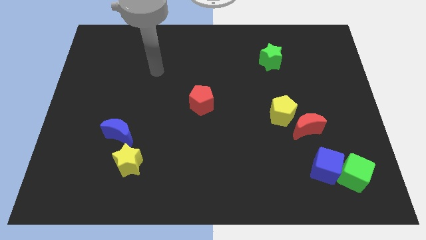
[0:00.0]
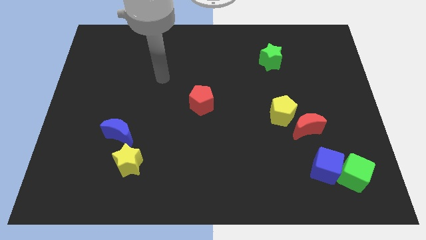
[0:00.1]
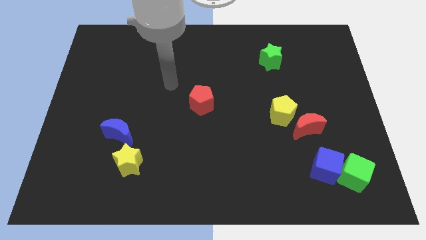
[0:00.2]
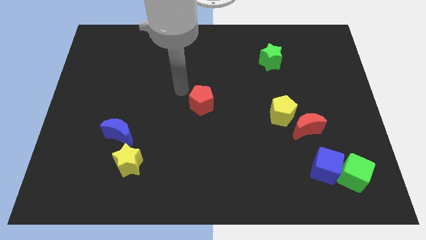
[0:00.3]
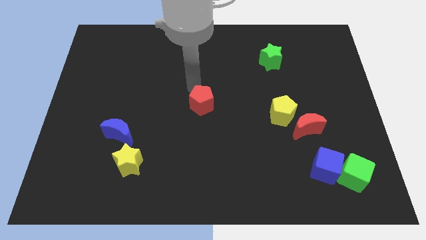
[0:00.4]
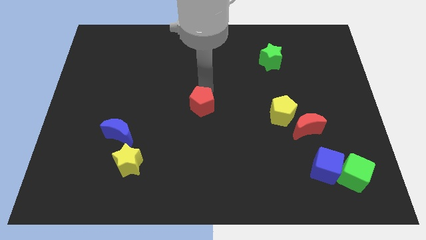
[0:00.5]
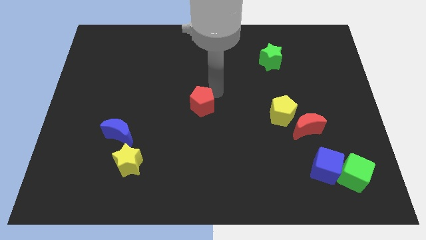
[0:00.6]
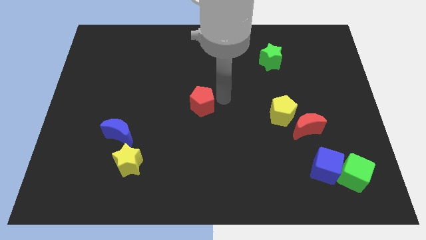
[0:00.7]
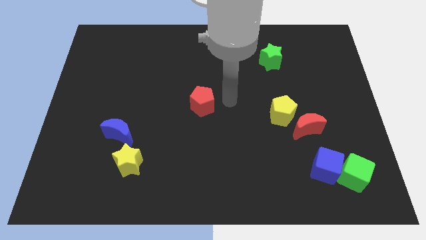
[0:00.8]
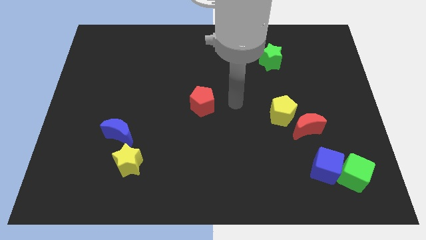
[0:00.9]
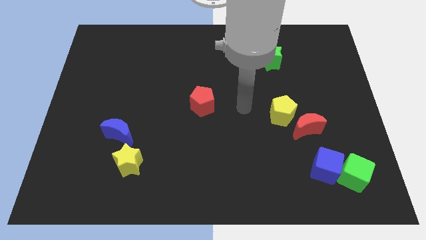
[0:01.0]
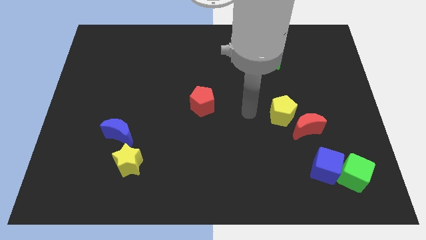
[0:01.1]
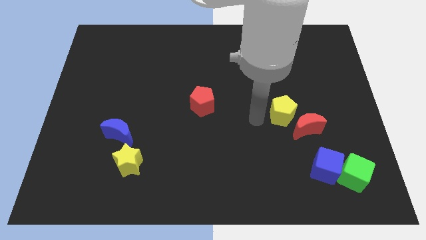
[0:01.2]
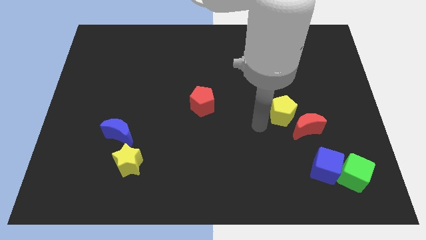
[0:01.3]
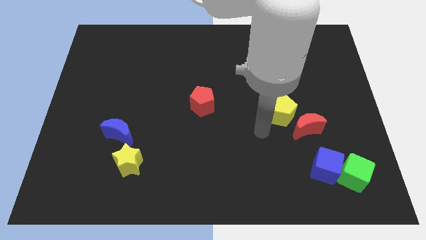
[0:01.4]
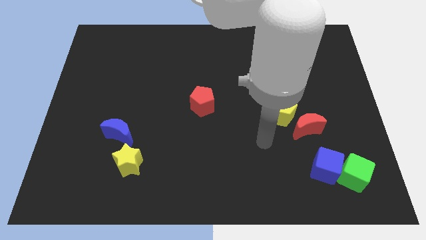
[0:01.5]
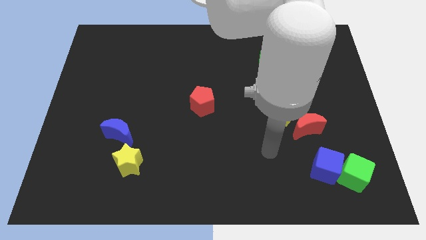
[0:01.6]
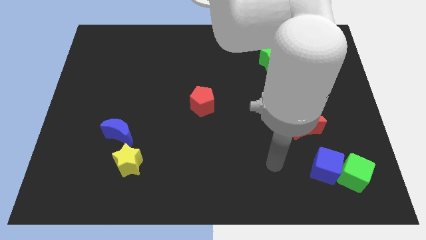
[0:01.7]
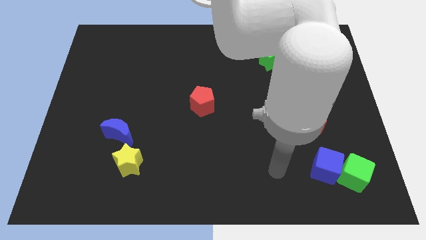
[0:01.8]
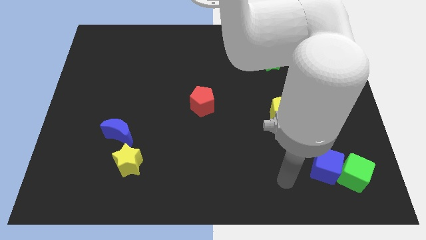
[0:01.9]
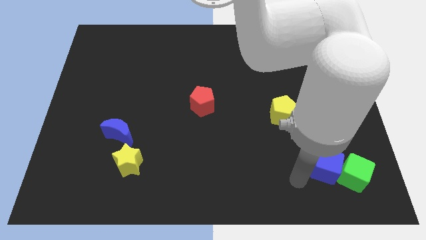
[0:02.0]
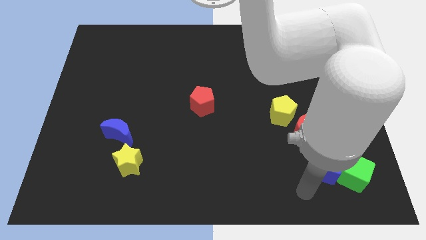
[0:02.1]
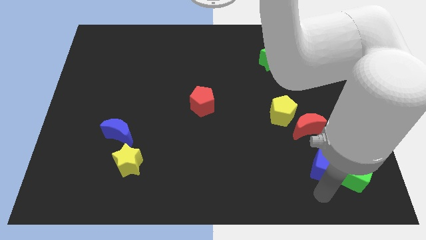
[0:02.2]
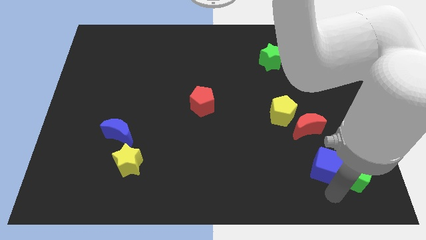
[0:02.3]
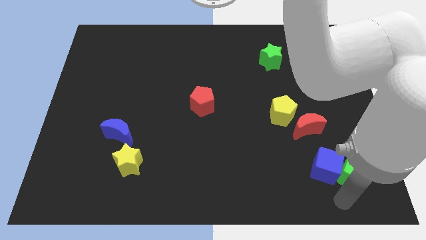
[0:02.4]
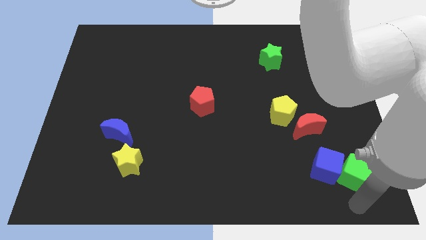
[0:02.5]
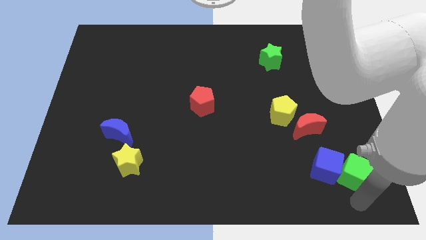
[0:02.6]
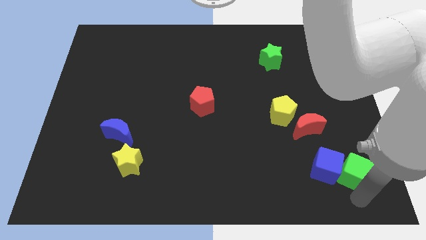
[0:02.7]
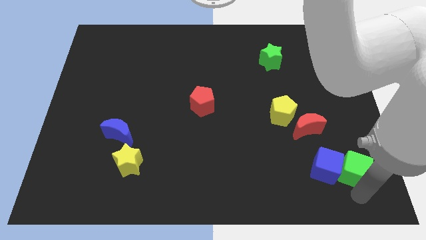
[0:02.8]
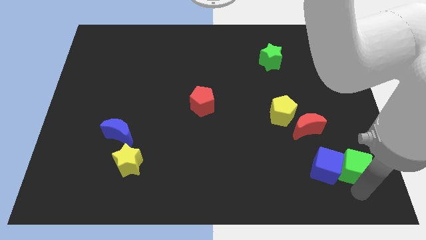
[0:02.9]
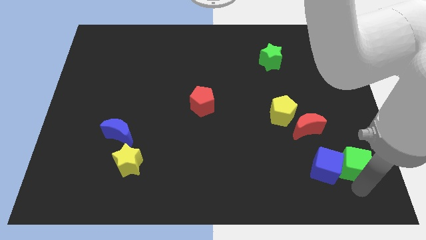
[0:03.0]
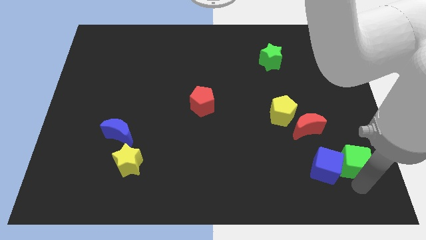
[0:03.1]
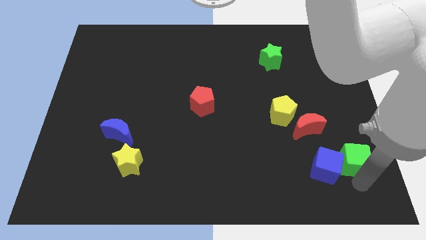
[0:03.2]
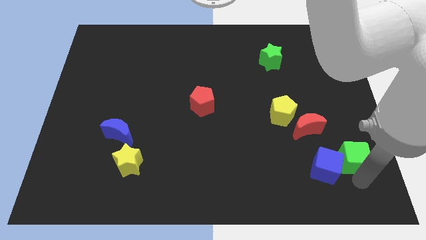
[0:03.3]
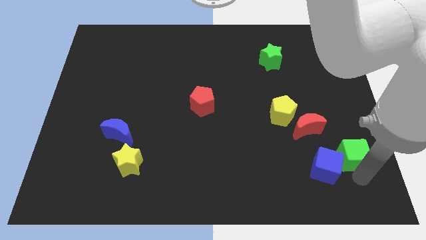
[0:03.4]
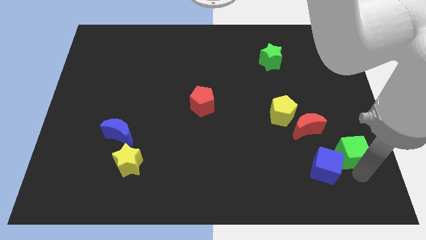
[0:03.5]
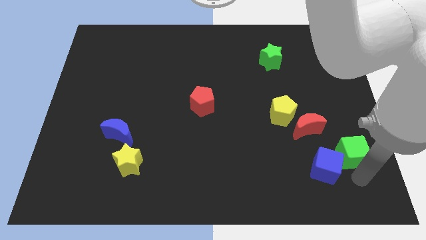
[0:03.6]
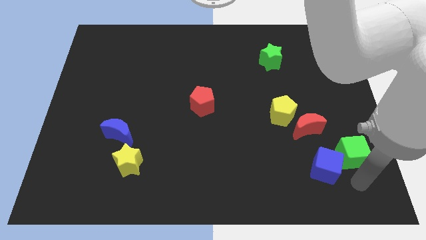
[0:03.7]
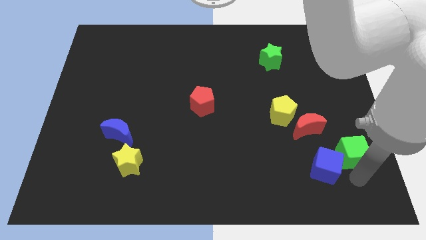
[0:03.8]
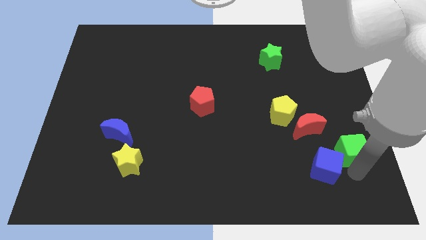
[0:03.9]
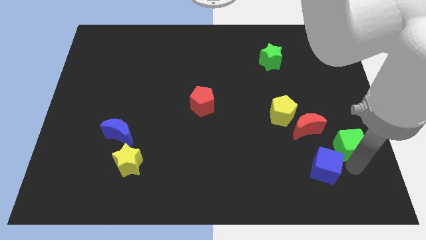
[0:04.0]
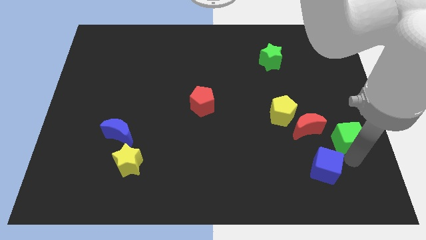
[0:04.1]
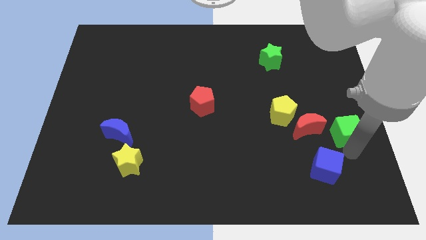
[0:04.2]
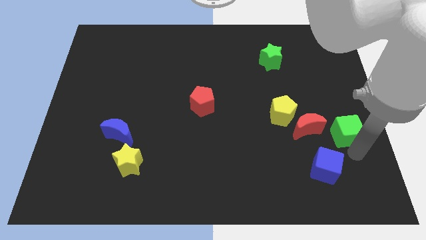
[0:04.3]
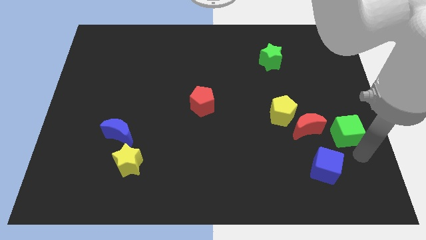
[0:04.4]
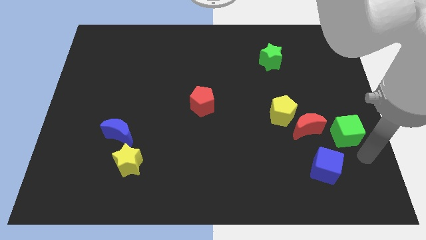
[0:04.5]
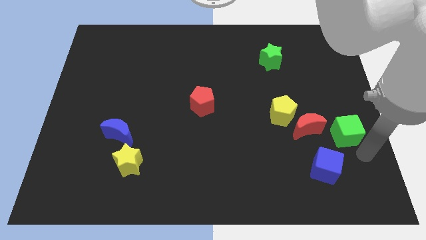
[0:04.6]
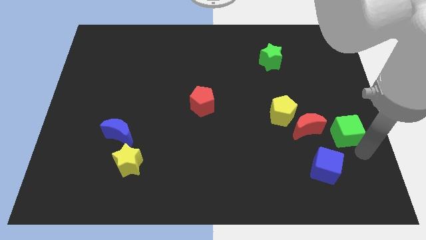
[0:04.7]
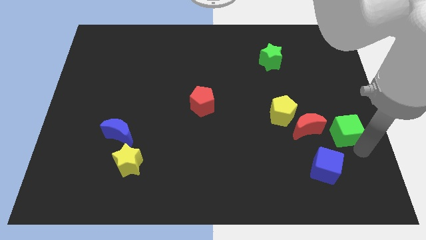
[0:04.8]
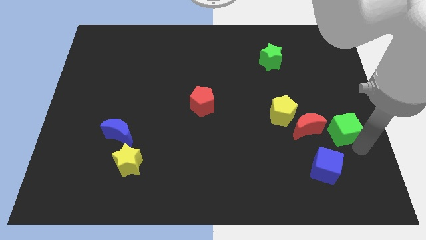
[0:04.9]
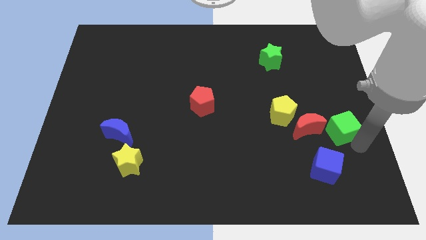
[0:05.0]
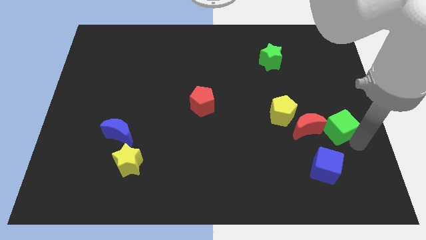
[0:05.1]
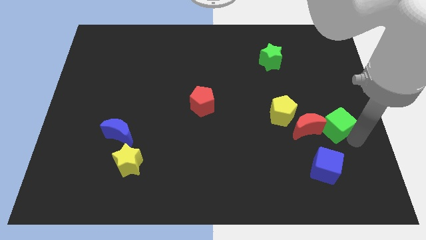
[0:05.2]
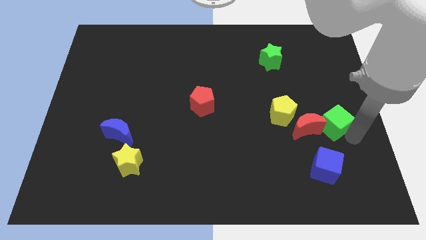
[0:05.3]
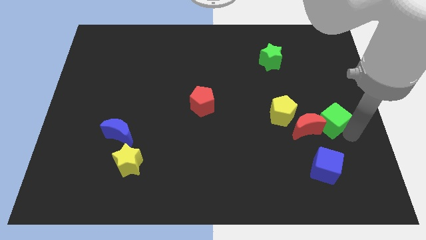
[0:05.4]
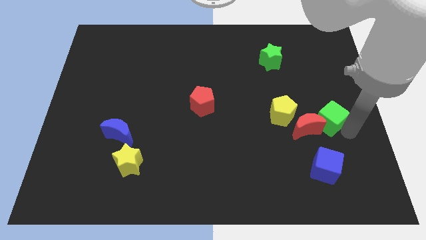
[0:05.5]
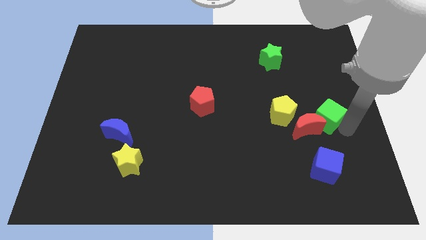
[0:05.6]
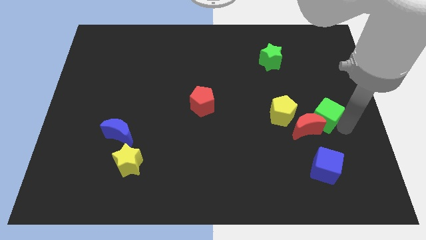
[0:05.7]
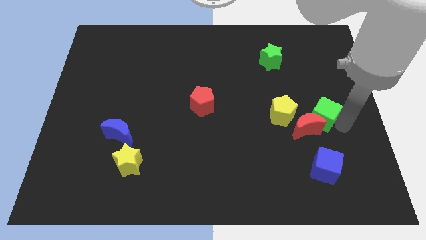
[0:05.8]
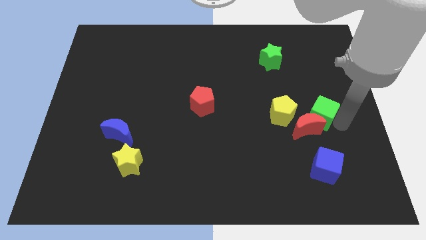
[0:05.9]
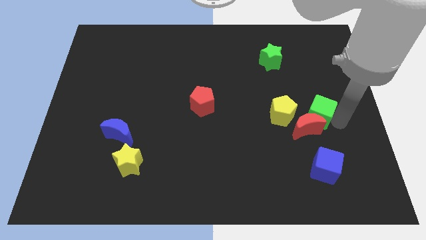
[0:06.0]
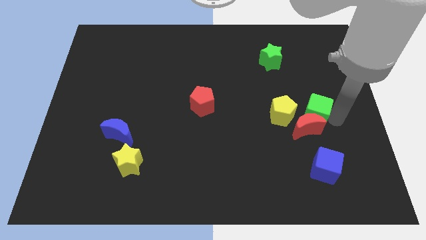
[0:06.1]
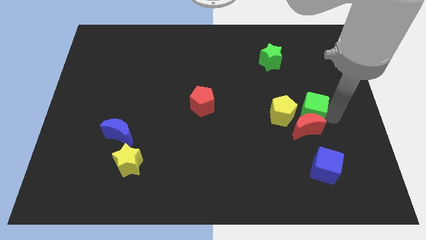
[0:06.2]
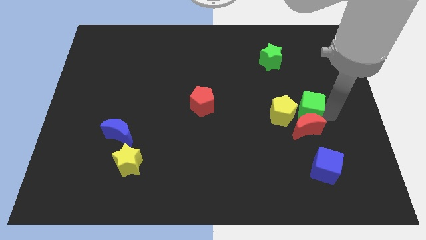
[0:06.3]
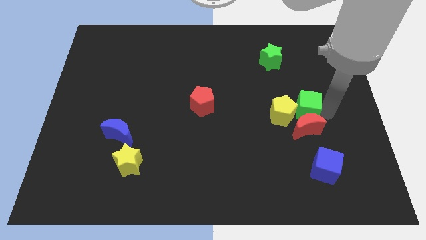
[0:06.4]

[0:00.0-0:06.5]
push the green cube towards the yellow pentagon

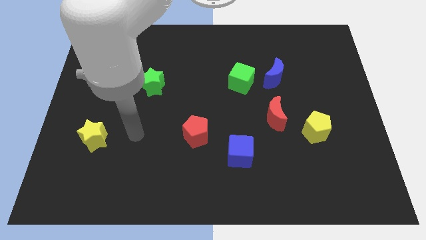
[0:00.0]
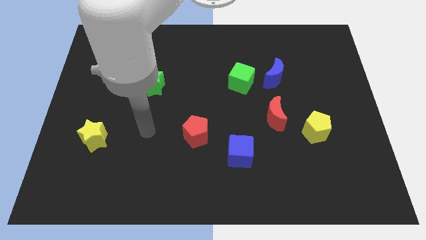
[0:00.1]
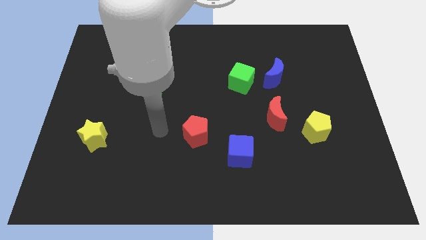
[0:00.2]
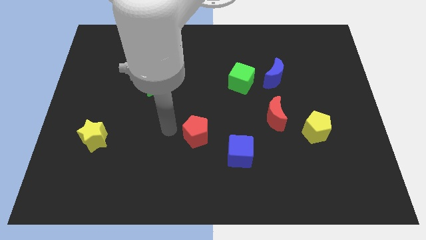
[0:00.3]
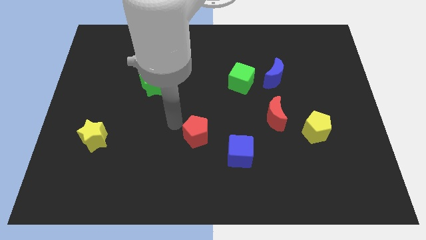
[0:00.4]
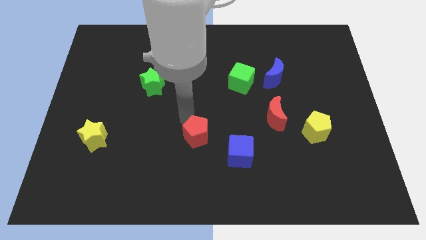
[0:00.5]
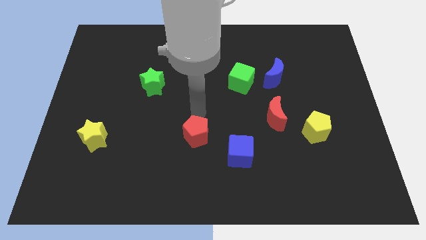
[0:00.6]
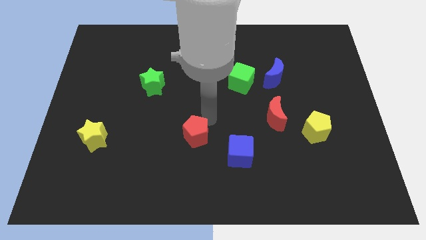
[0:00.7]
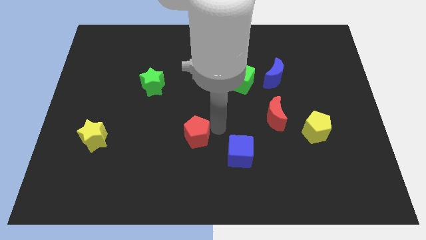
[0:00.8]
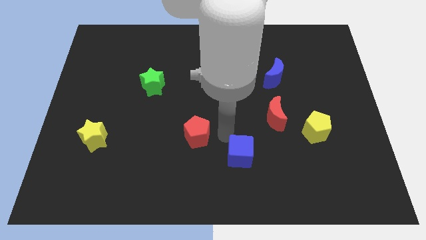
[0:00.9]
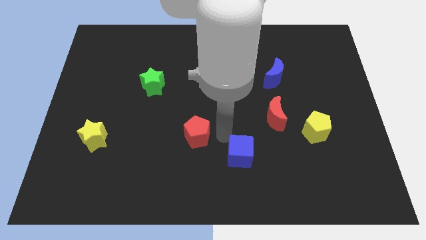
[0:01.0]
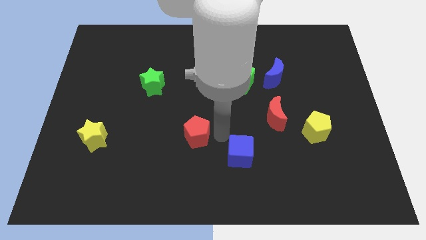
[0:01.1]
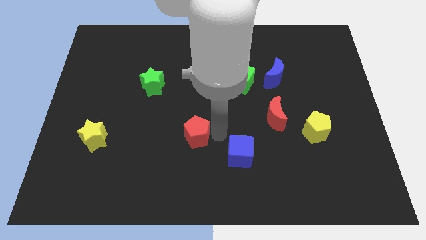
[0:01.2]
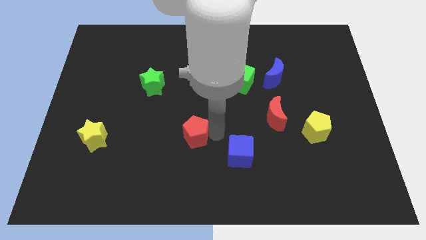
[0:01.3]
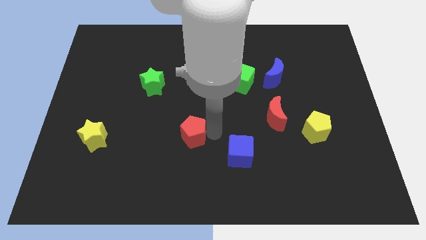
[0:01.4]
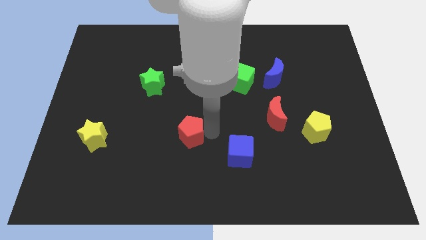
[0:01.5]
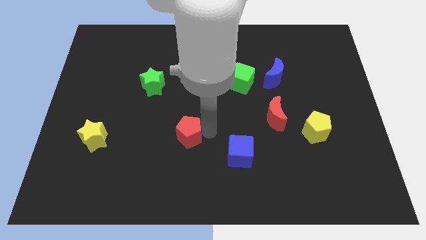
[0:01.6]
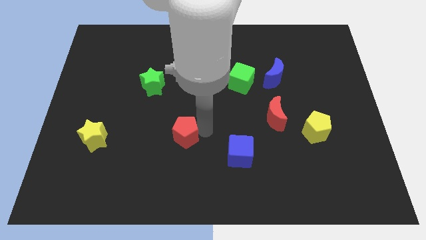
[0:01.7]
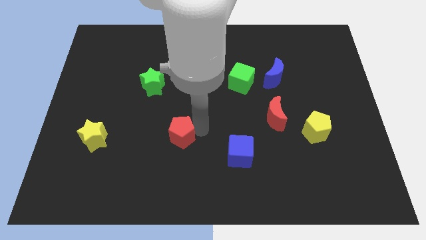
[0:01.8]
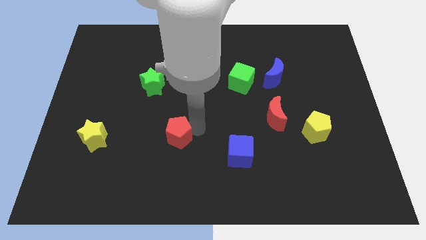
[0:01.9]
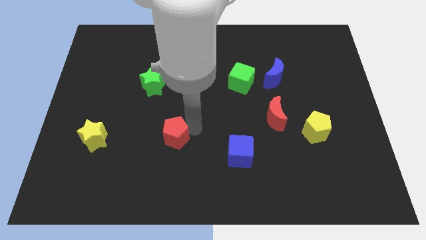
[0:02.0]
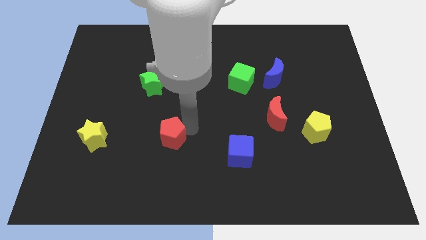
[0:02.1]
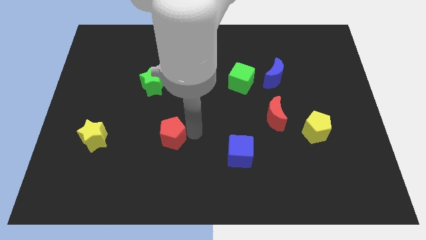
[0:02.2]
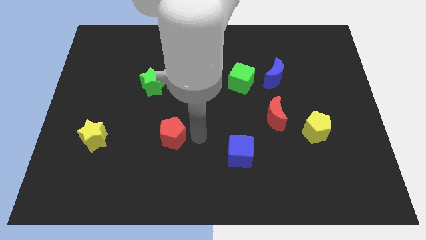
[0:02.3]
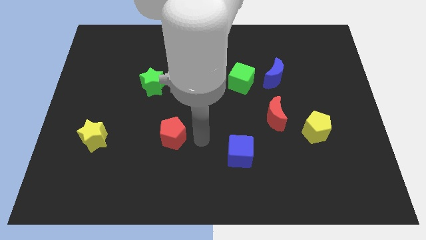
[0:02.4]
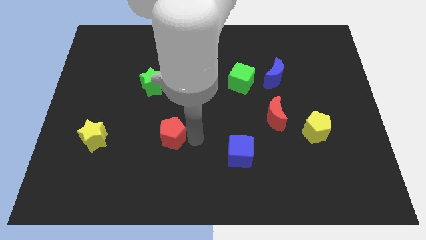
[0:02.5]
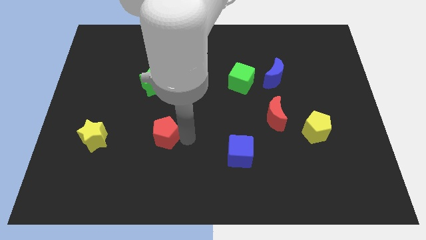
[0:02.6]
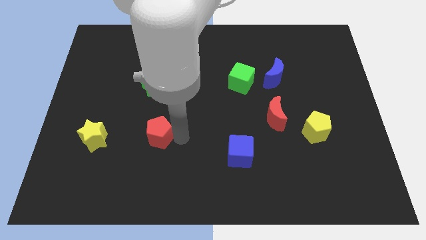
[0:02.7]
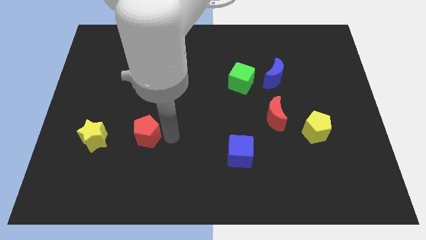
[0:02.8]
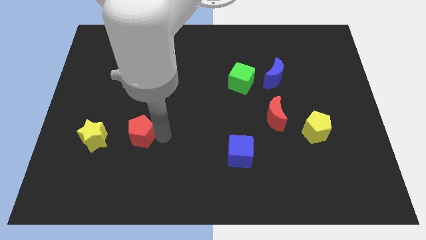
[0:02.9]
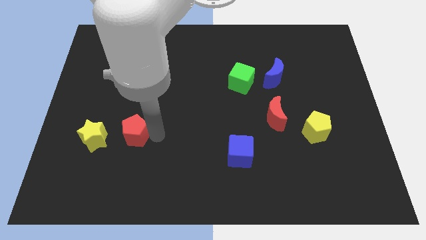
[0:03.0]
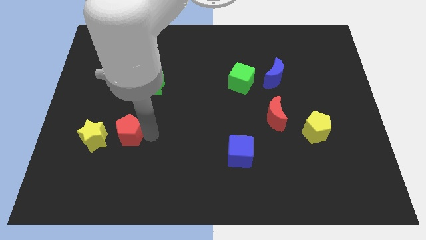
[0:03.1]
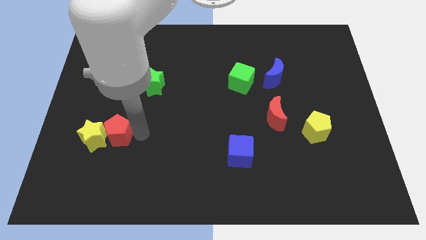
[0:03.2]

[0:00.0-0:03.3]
put the red pentagon towards the yellow star
